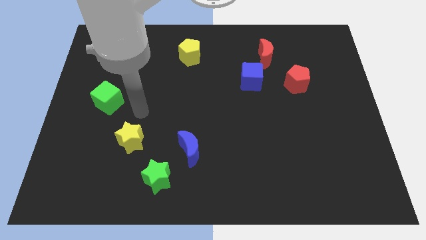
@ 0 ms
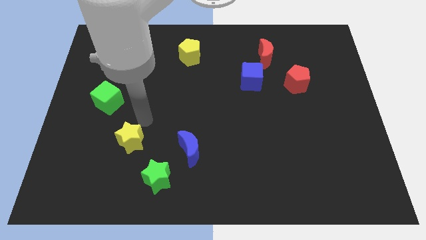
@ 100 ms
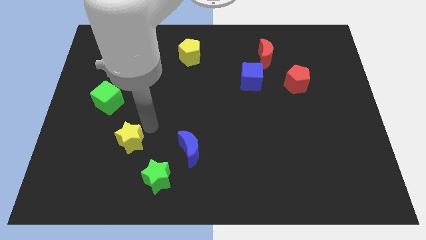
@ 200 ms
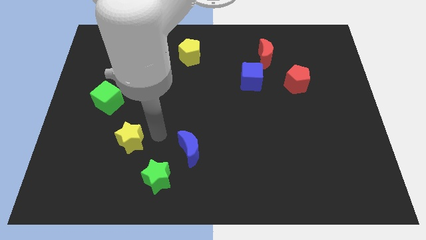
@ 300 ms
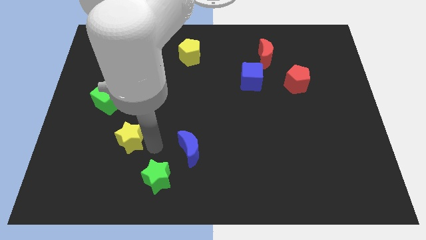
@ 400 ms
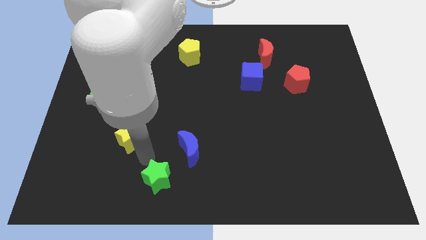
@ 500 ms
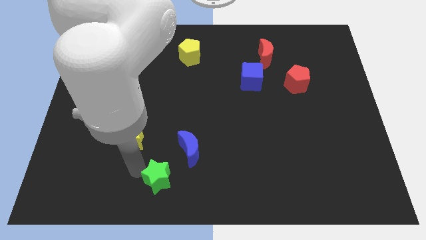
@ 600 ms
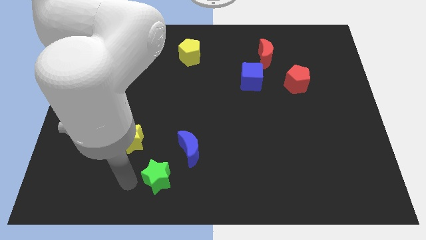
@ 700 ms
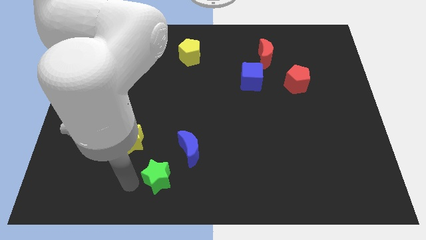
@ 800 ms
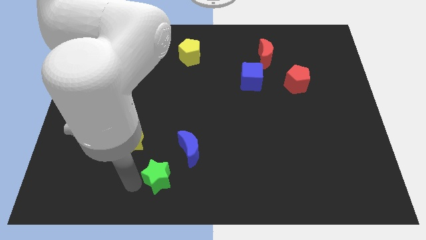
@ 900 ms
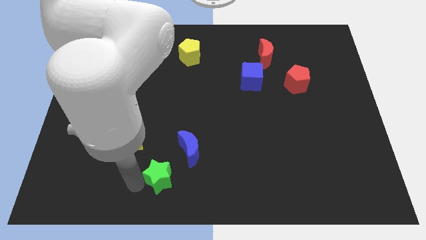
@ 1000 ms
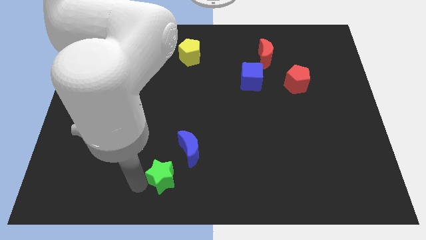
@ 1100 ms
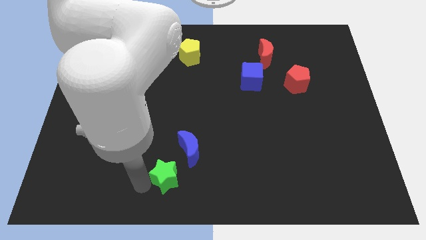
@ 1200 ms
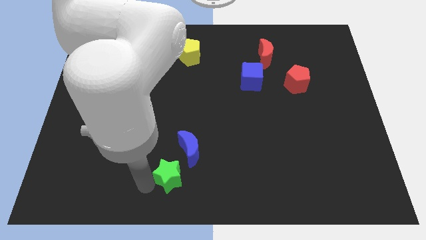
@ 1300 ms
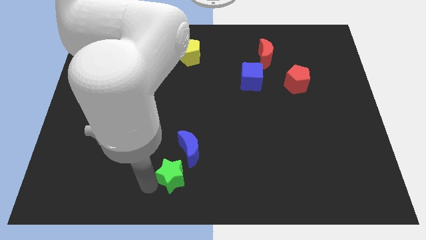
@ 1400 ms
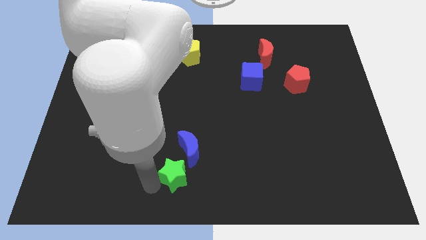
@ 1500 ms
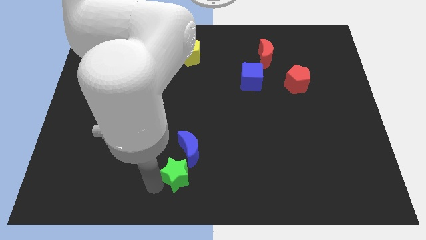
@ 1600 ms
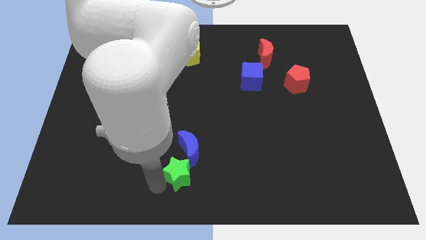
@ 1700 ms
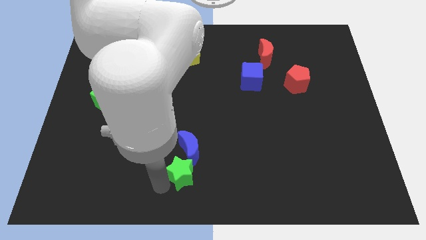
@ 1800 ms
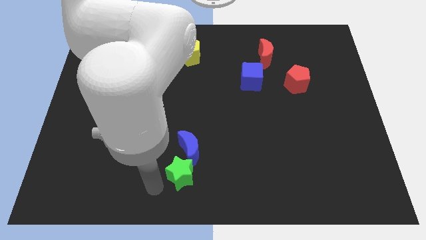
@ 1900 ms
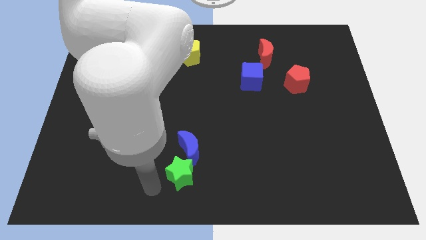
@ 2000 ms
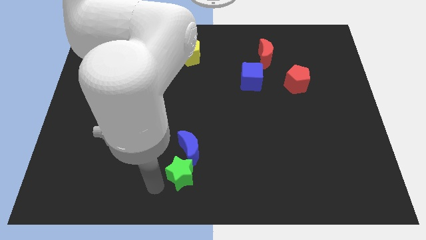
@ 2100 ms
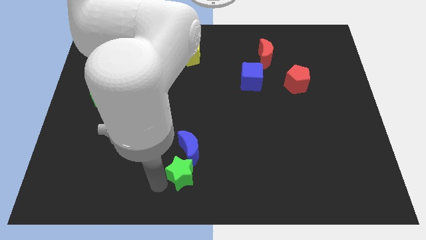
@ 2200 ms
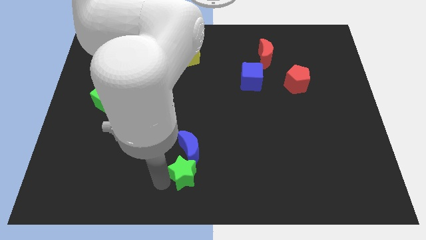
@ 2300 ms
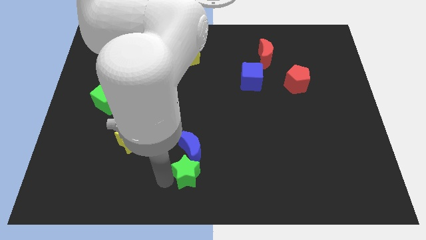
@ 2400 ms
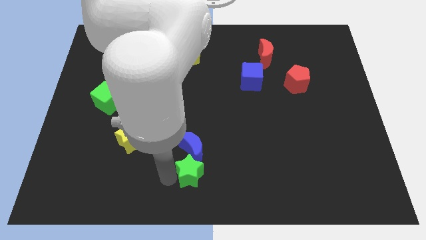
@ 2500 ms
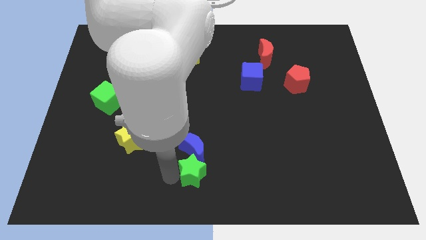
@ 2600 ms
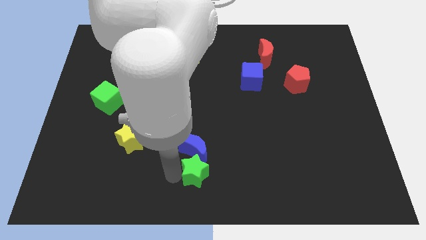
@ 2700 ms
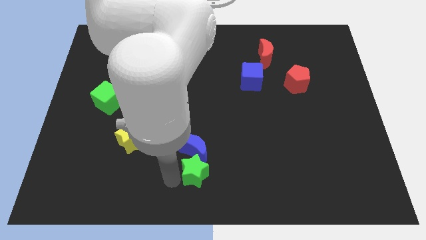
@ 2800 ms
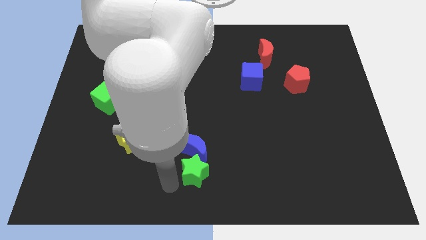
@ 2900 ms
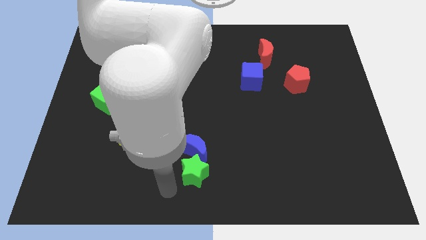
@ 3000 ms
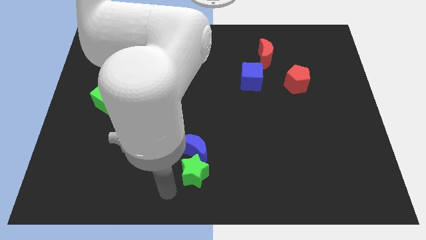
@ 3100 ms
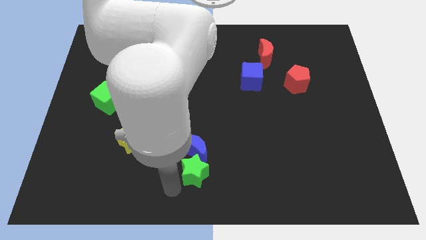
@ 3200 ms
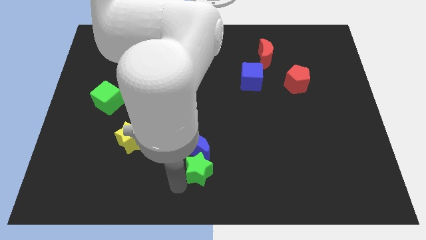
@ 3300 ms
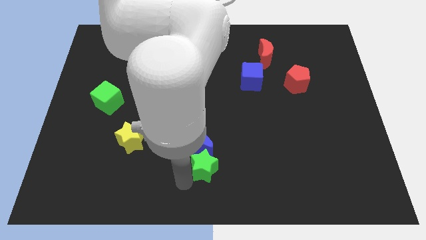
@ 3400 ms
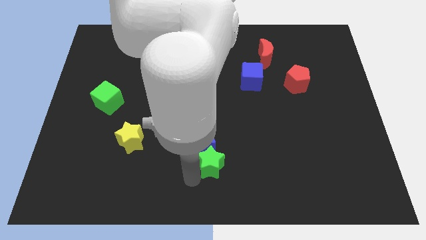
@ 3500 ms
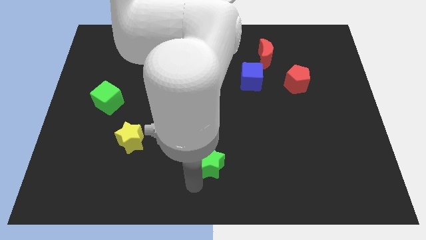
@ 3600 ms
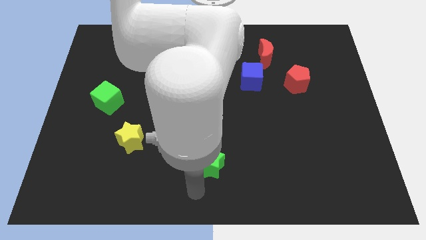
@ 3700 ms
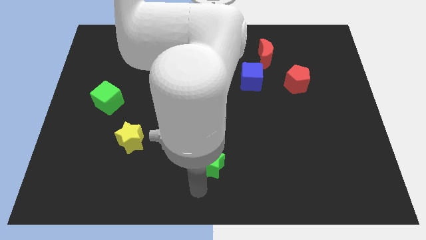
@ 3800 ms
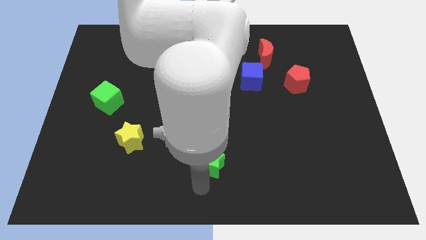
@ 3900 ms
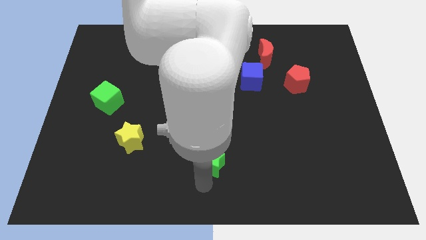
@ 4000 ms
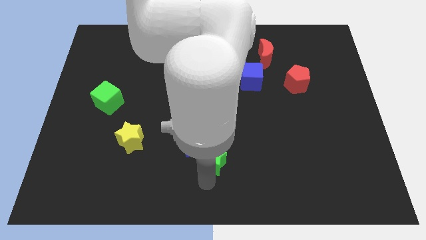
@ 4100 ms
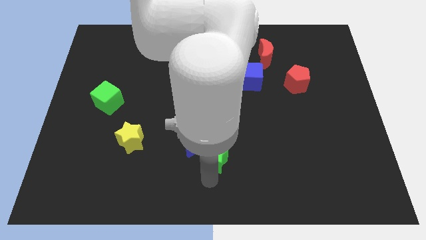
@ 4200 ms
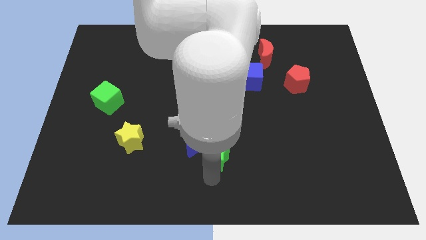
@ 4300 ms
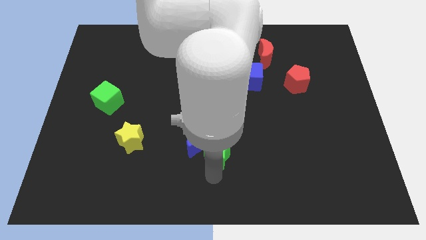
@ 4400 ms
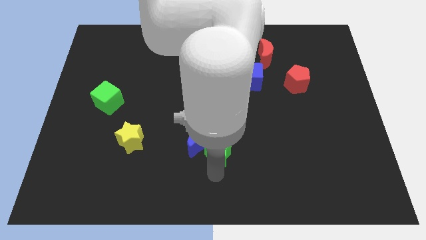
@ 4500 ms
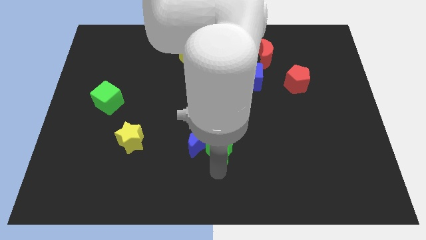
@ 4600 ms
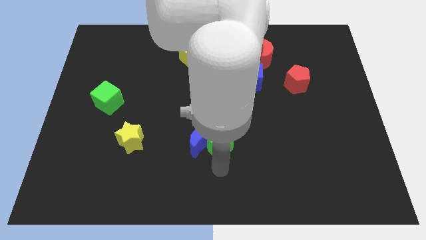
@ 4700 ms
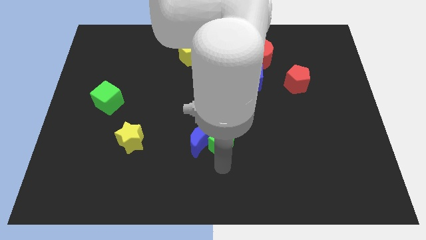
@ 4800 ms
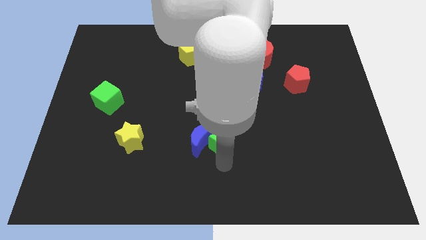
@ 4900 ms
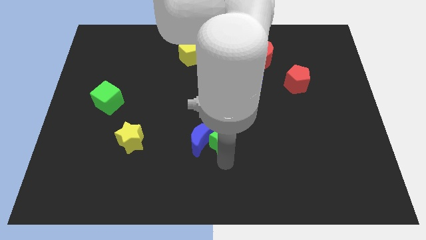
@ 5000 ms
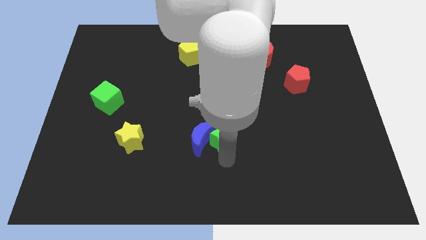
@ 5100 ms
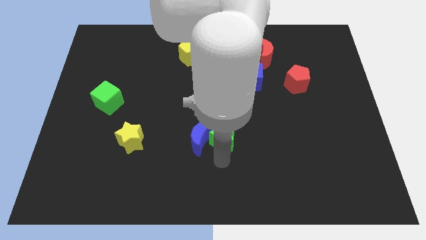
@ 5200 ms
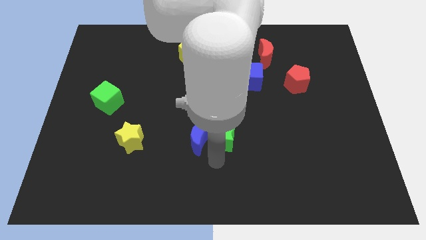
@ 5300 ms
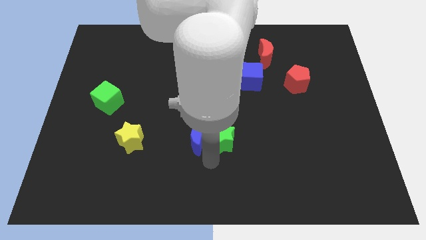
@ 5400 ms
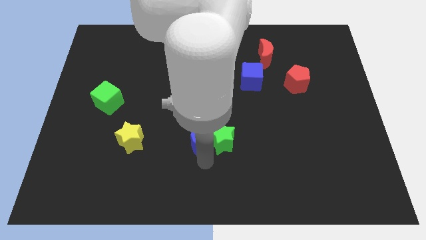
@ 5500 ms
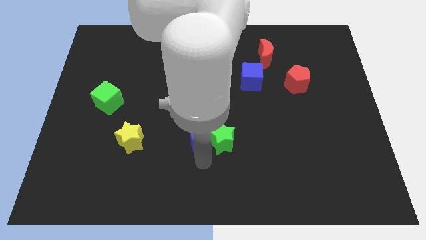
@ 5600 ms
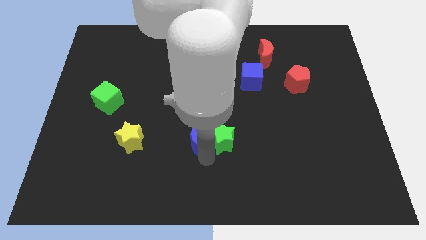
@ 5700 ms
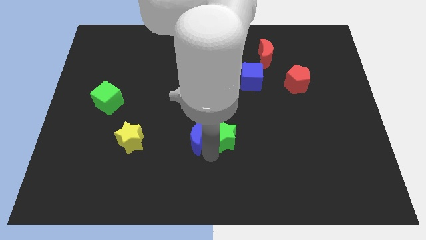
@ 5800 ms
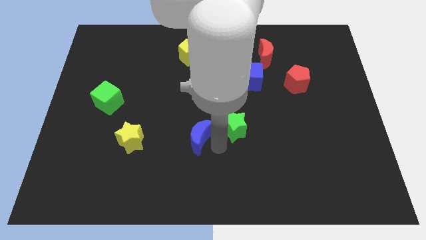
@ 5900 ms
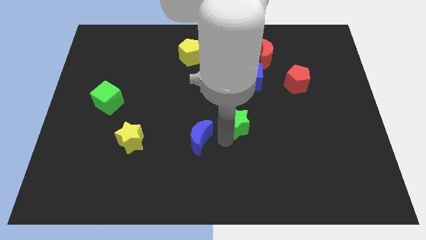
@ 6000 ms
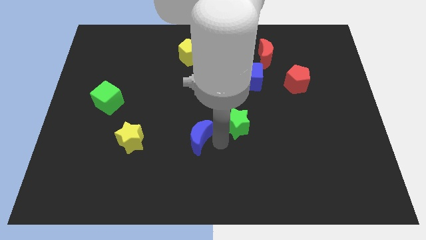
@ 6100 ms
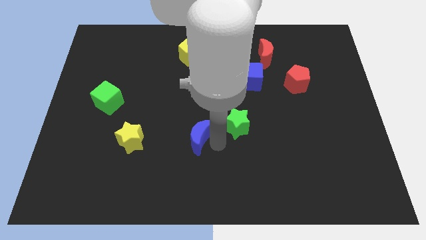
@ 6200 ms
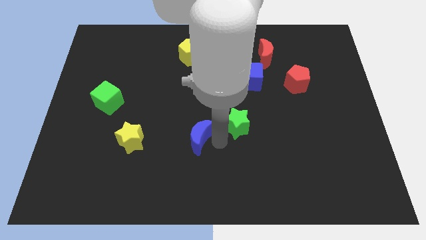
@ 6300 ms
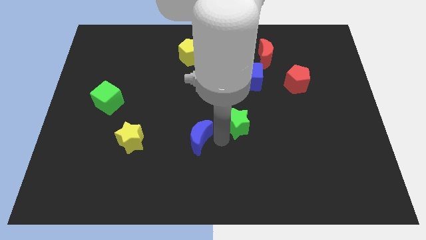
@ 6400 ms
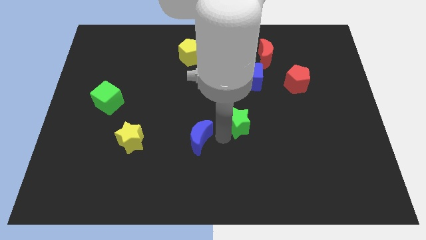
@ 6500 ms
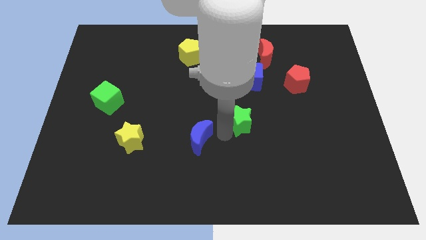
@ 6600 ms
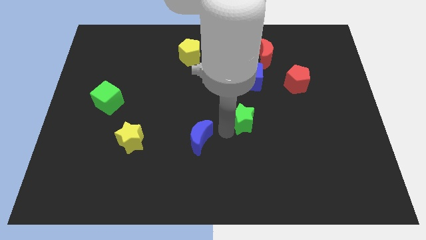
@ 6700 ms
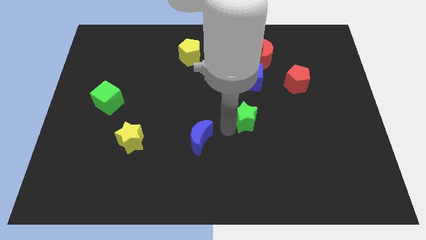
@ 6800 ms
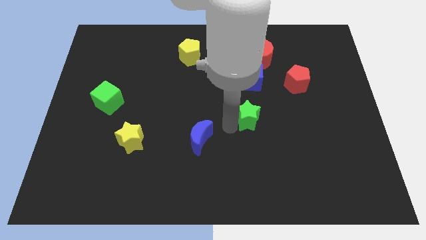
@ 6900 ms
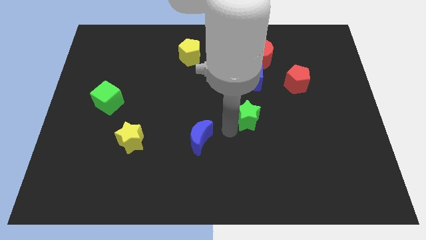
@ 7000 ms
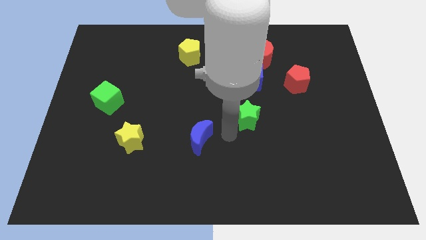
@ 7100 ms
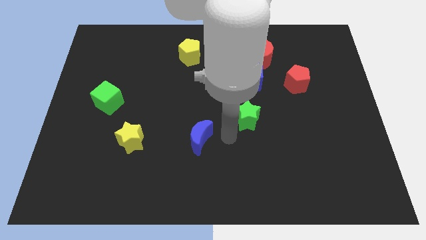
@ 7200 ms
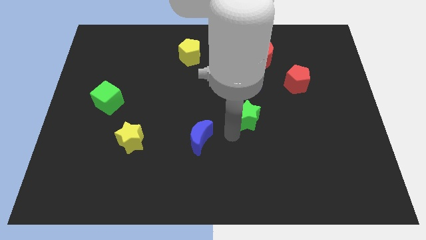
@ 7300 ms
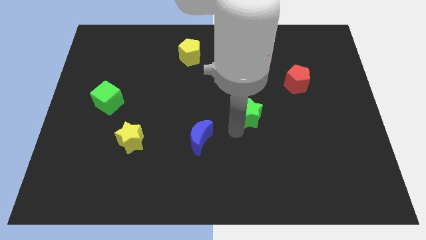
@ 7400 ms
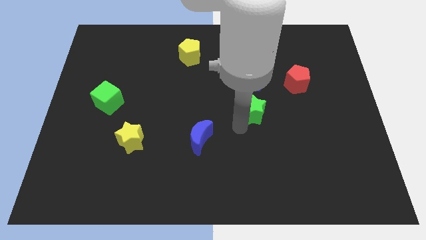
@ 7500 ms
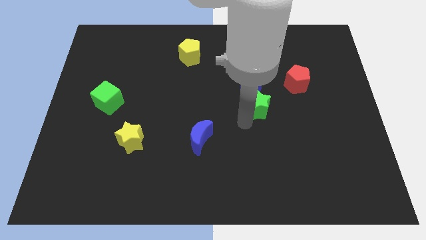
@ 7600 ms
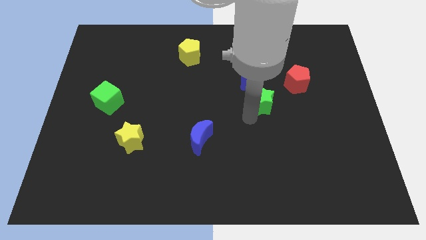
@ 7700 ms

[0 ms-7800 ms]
move the green star to the bottom right of the blue cube
